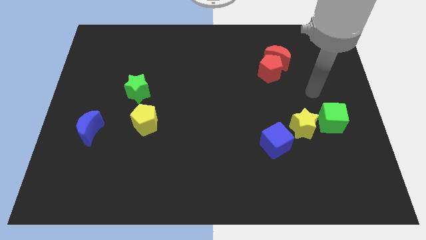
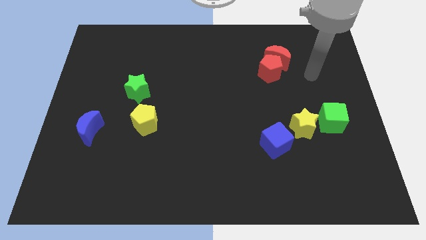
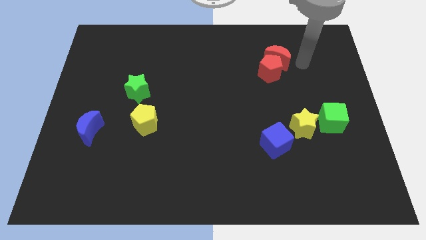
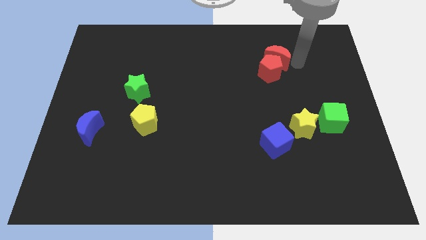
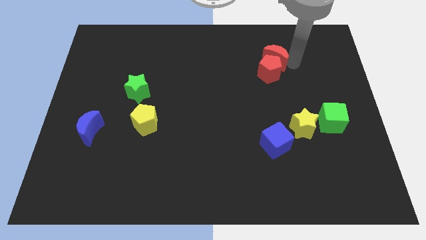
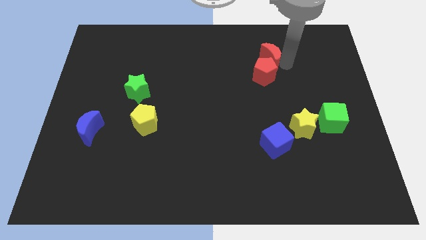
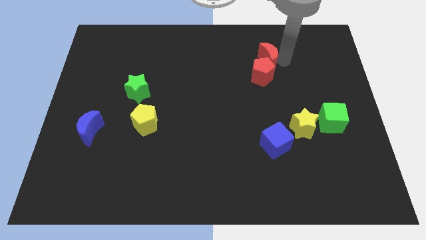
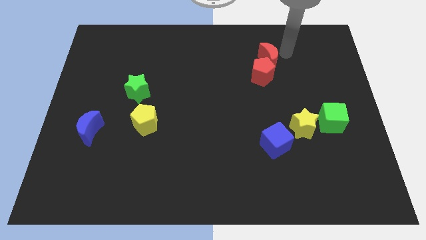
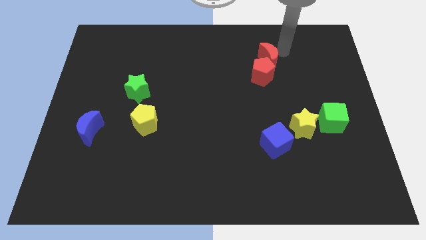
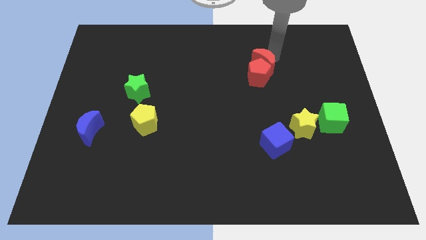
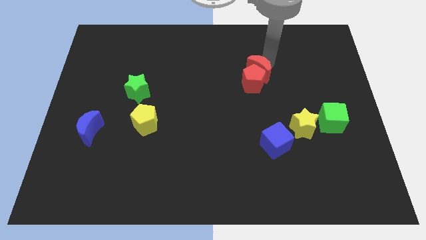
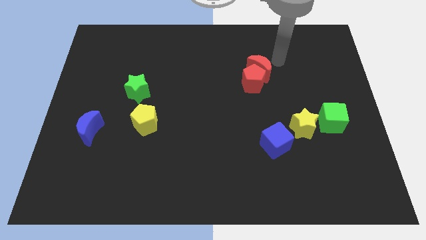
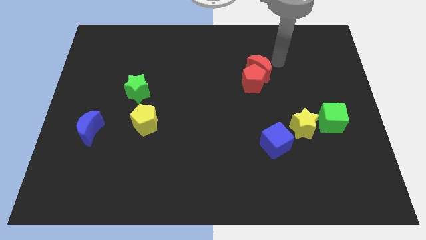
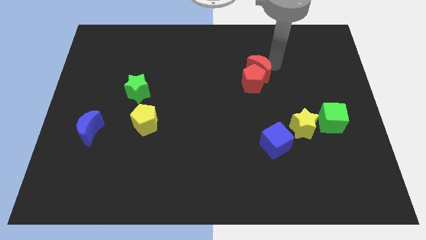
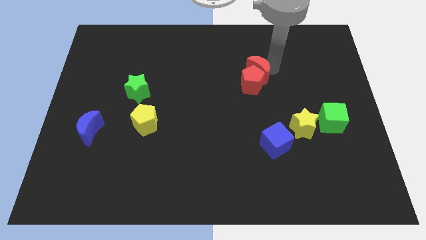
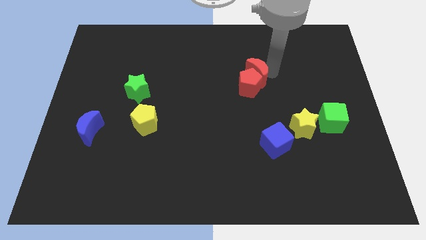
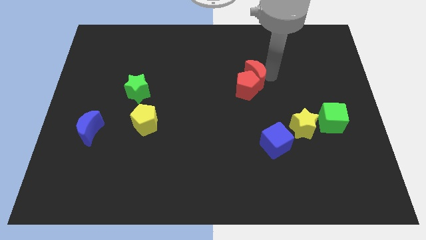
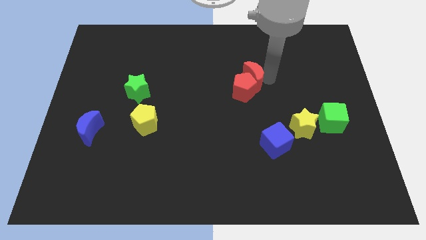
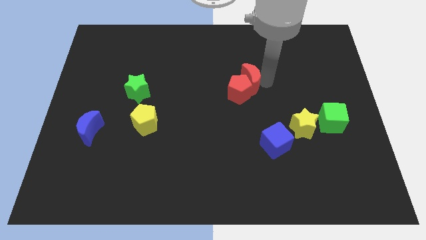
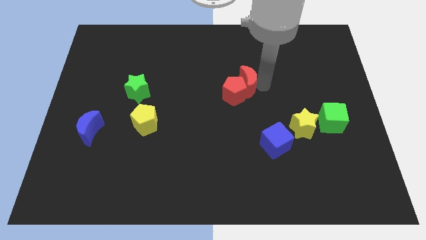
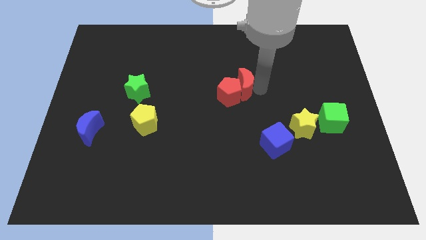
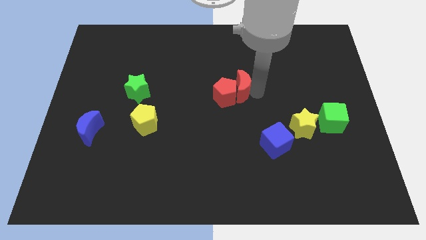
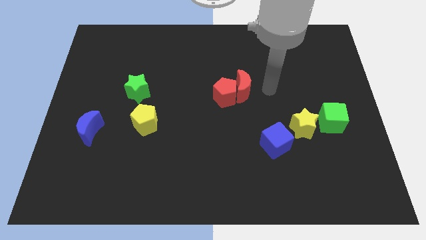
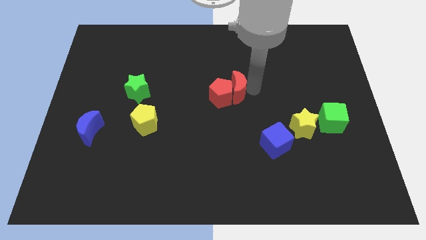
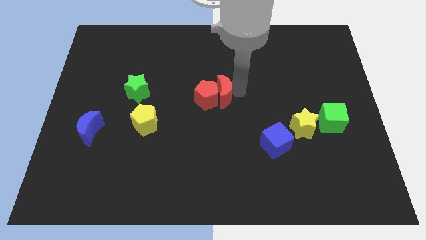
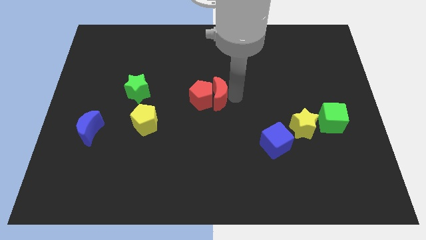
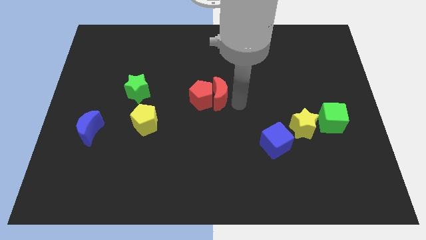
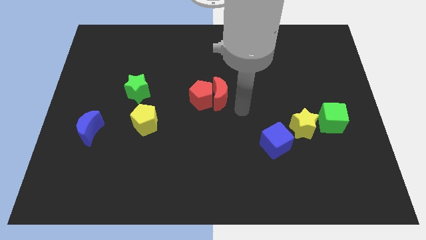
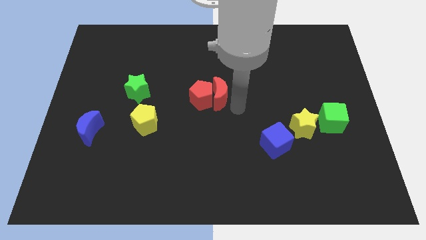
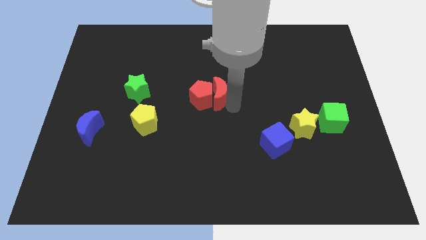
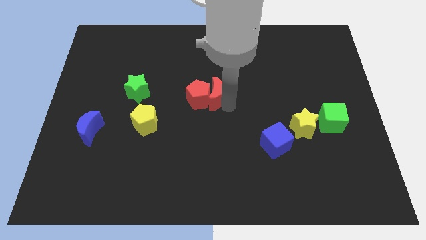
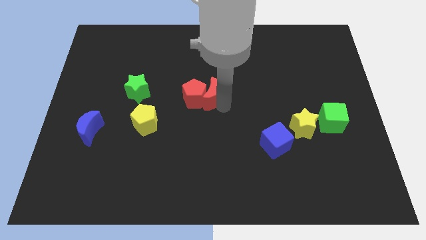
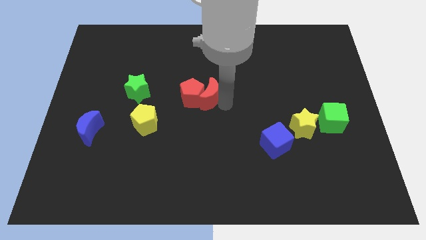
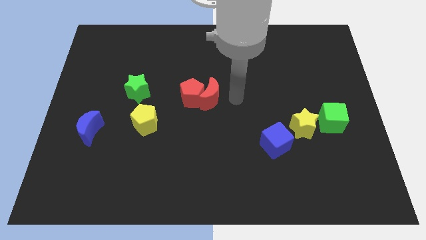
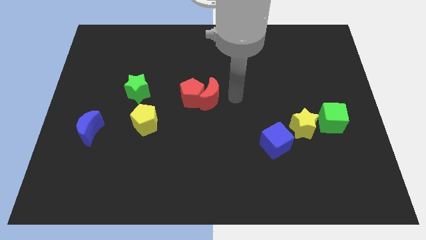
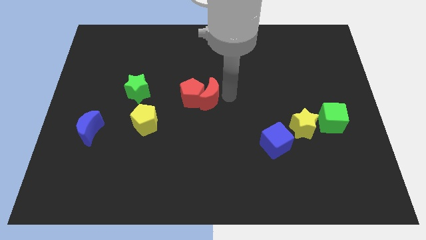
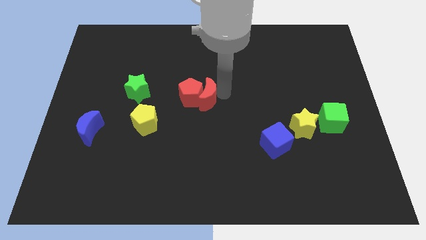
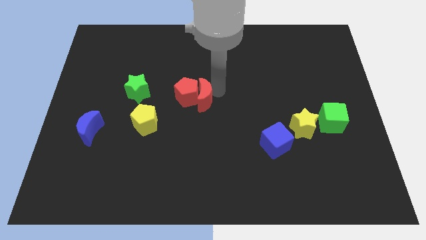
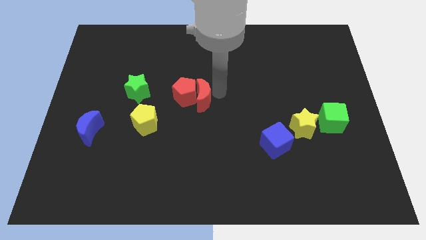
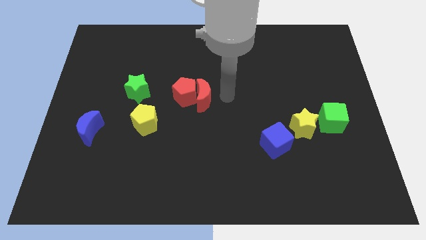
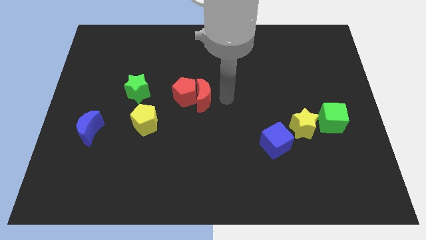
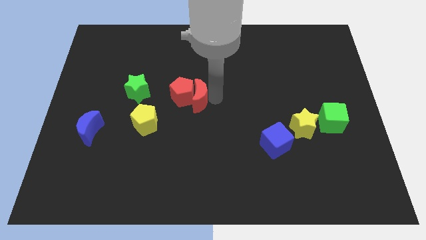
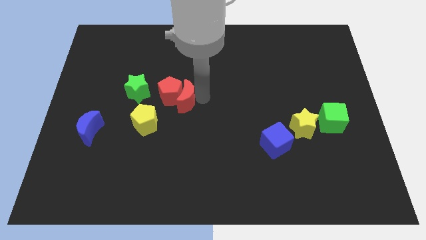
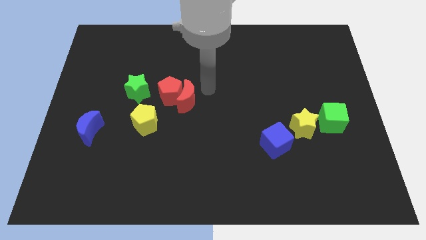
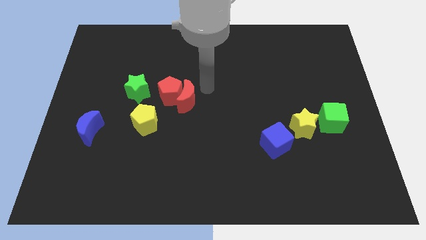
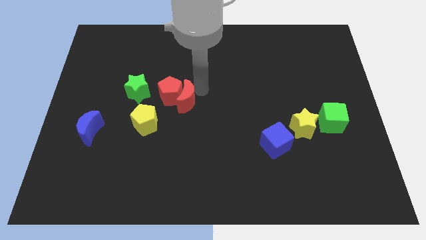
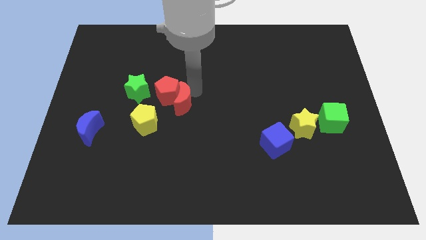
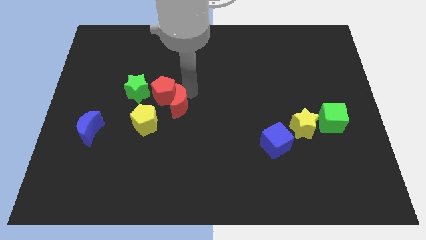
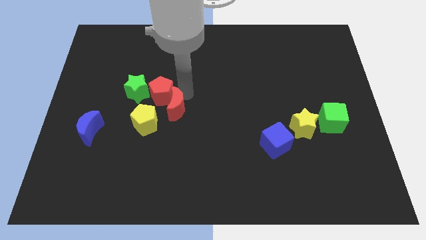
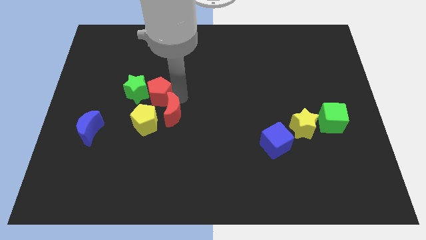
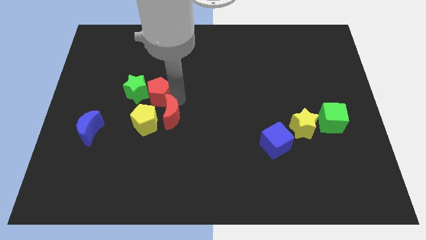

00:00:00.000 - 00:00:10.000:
slide the red moon next to the yellow pentagon

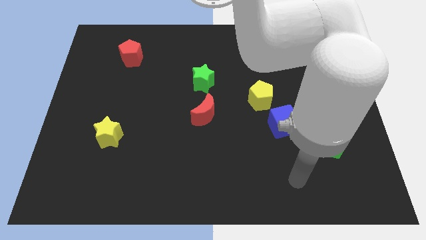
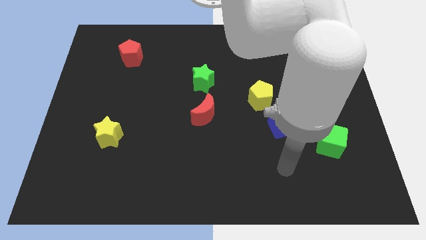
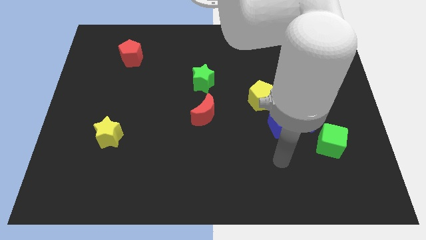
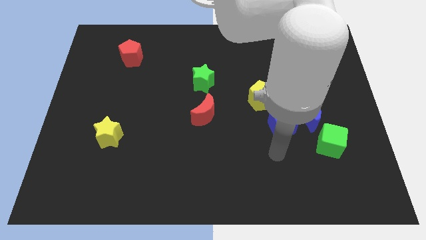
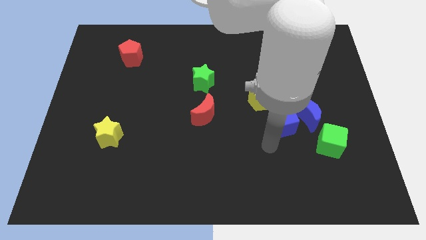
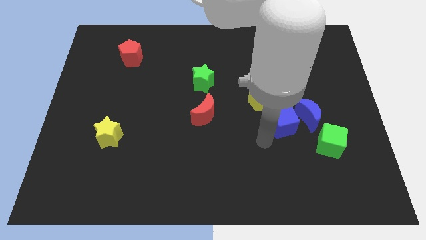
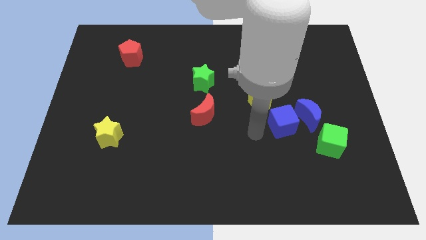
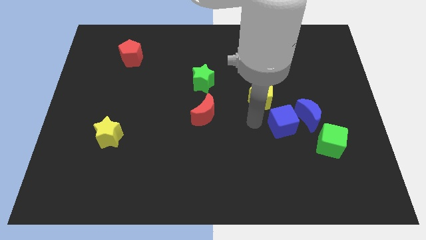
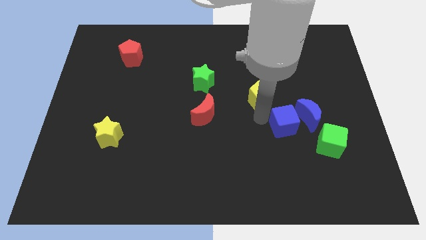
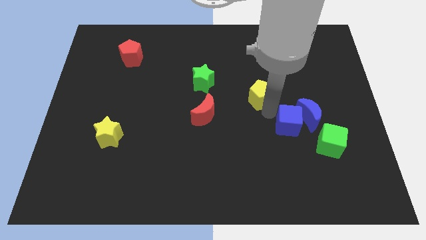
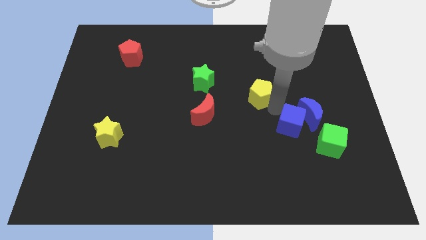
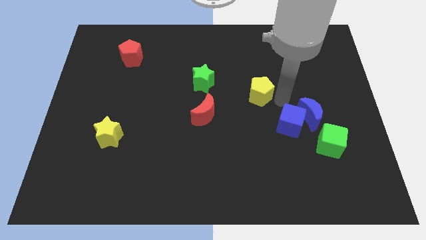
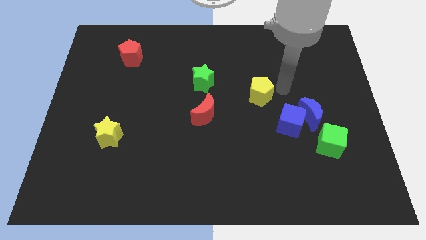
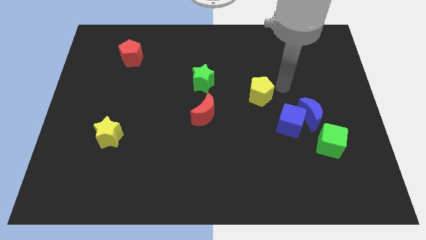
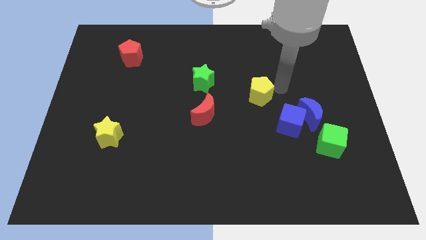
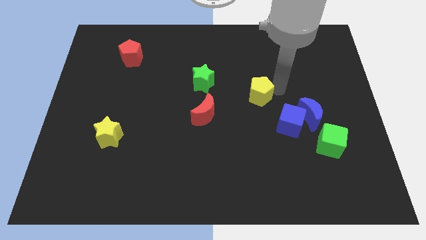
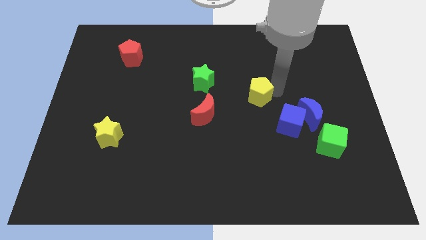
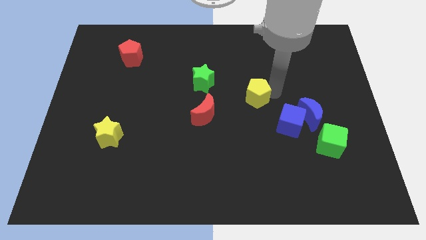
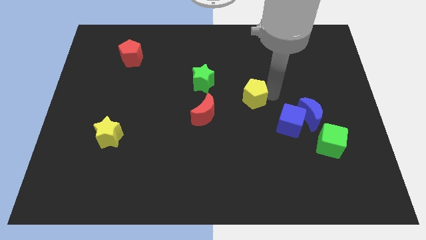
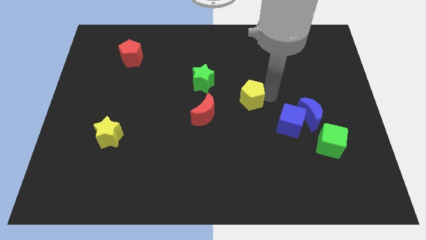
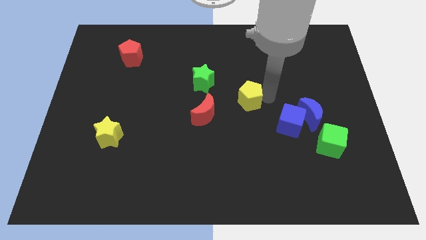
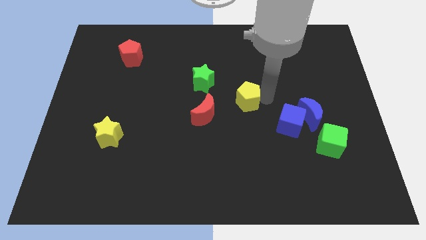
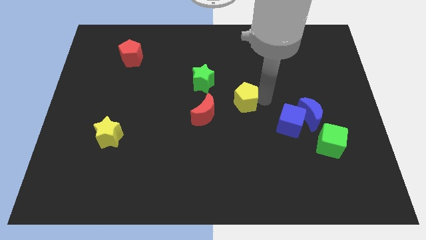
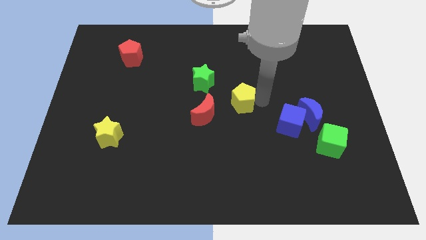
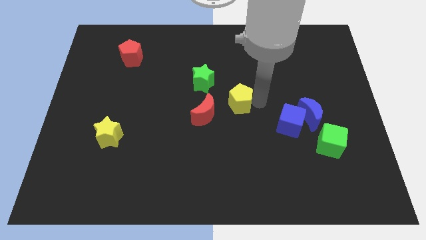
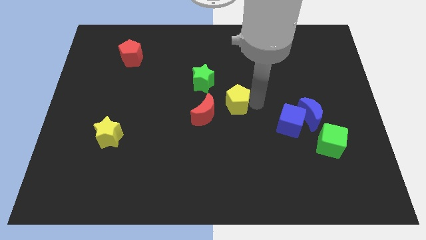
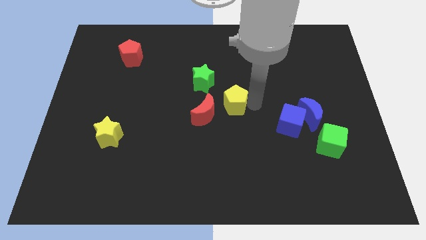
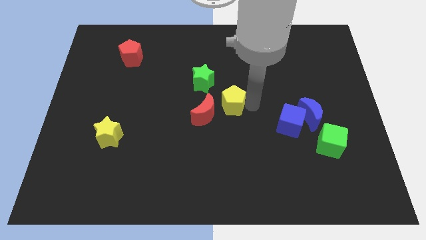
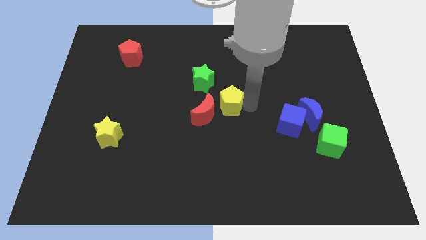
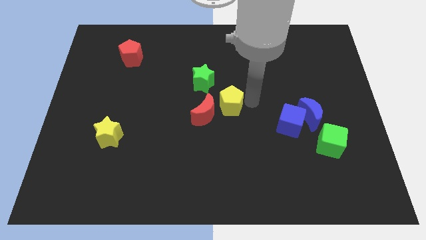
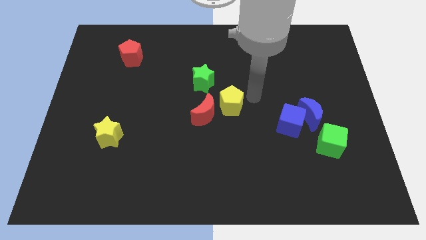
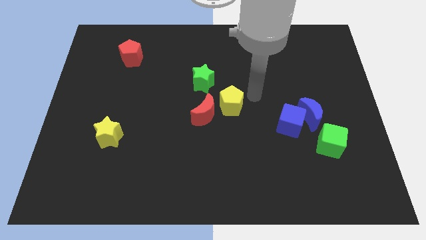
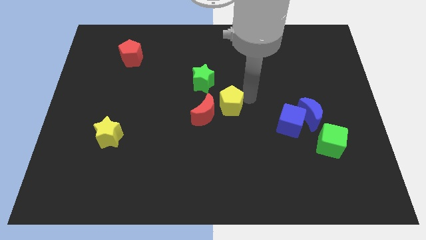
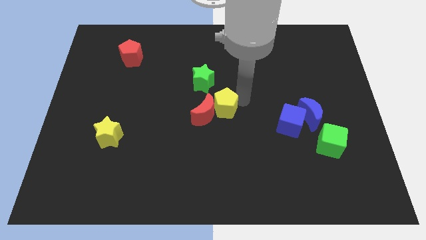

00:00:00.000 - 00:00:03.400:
push the yellow pentagon next to the red moon
